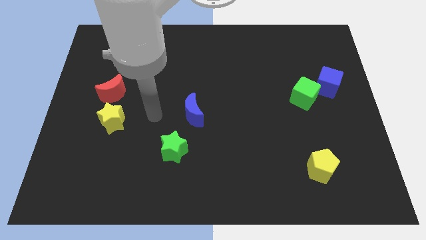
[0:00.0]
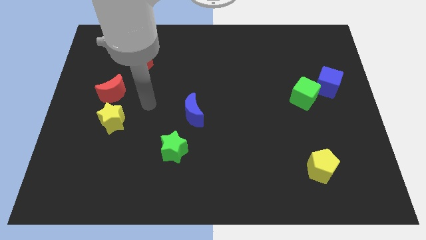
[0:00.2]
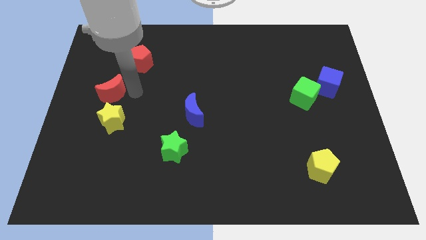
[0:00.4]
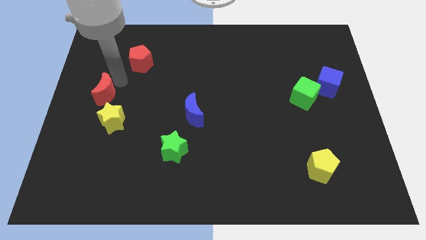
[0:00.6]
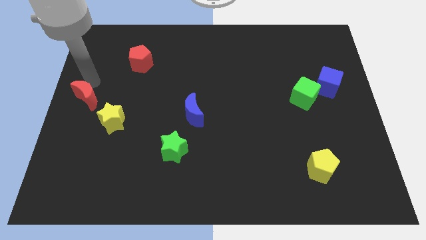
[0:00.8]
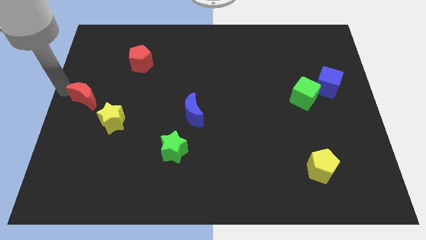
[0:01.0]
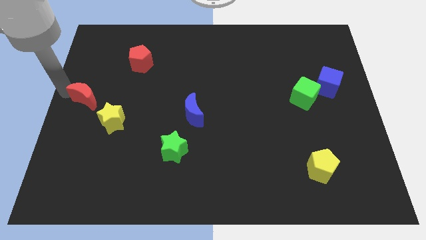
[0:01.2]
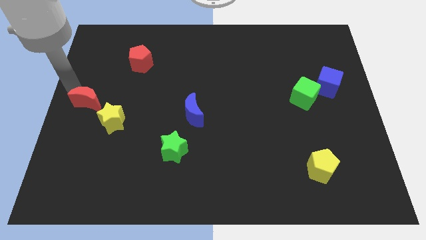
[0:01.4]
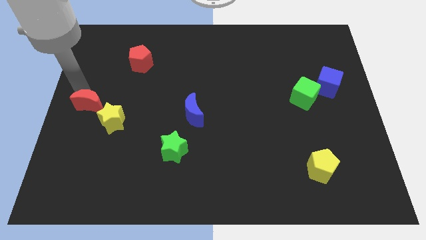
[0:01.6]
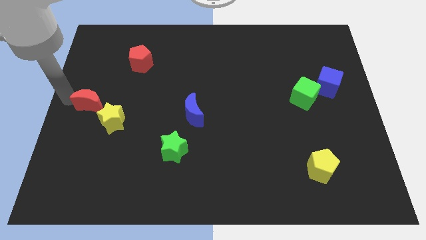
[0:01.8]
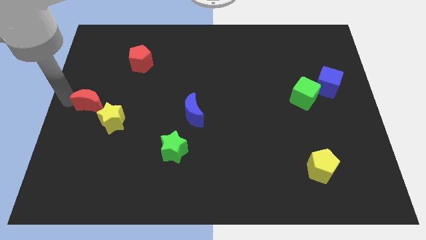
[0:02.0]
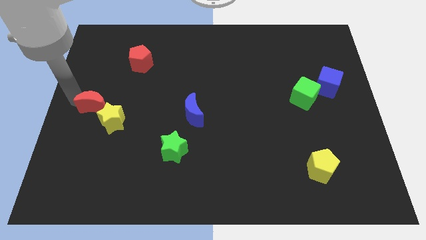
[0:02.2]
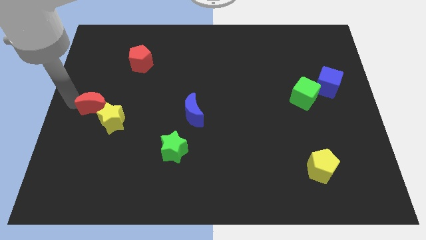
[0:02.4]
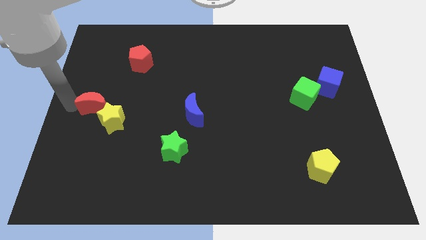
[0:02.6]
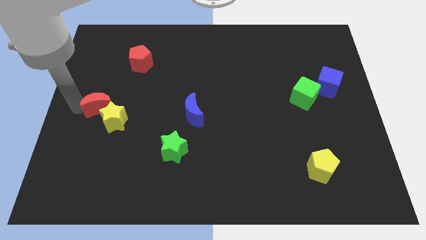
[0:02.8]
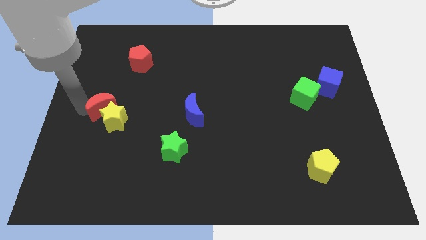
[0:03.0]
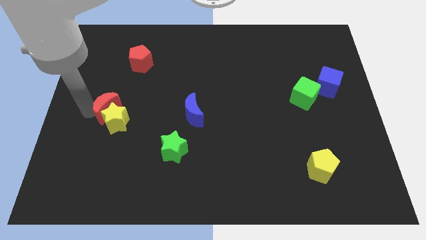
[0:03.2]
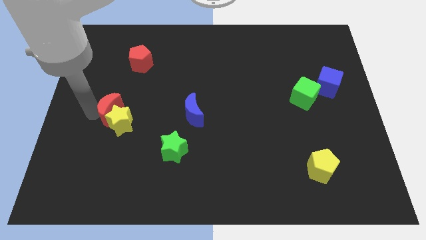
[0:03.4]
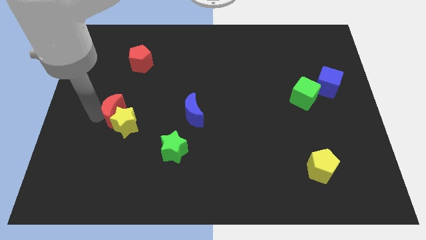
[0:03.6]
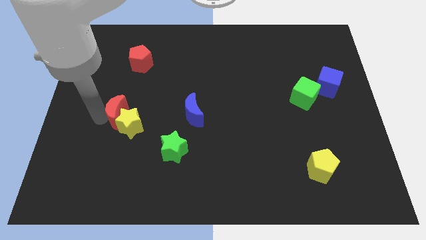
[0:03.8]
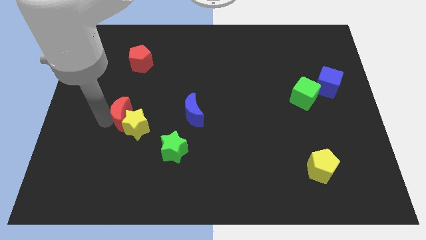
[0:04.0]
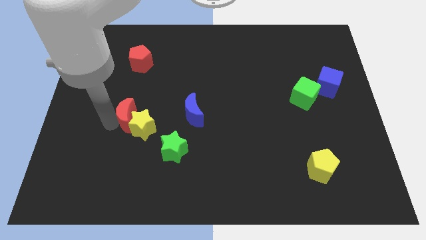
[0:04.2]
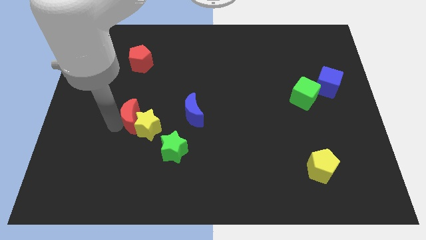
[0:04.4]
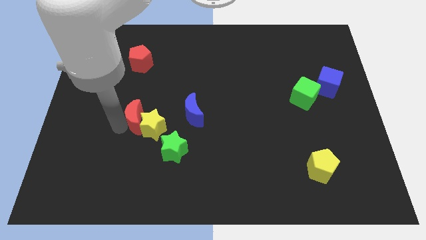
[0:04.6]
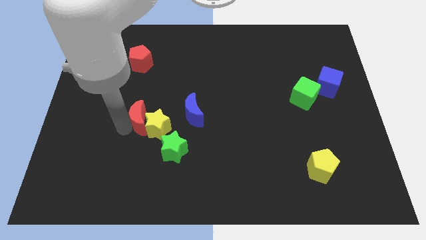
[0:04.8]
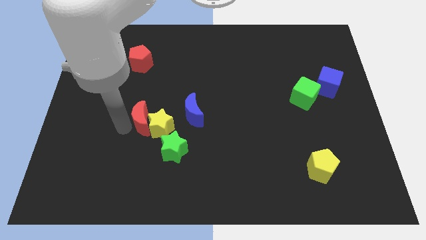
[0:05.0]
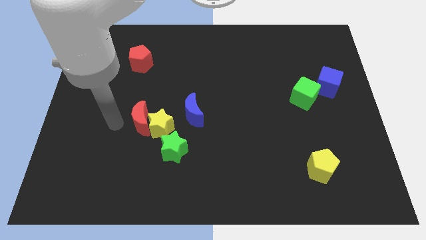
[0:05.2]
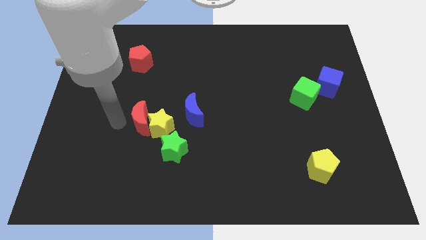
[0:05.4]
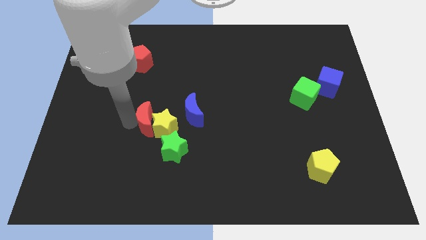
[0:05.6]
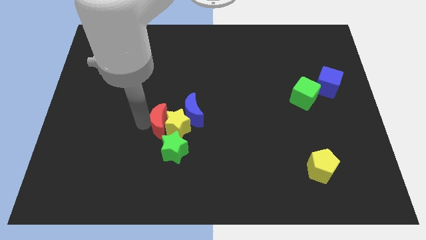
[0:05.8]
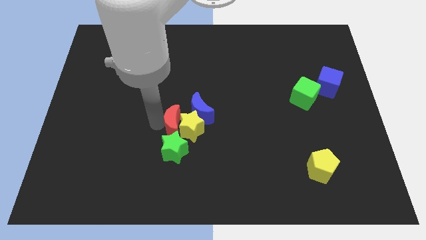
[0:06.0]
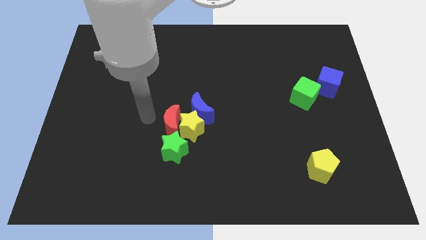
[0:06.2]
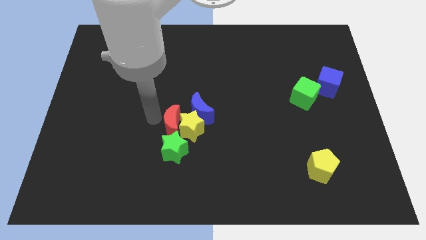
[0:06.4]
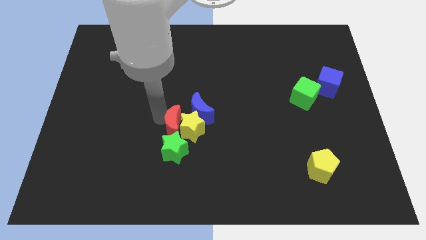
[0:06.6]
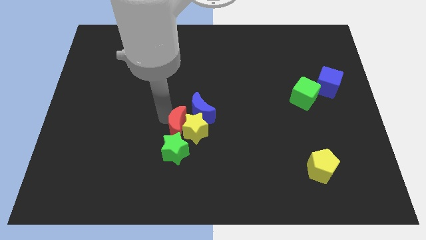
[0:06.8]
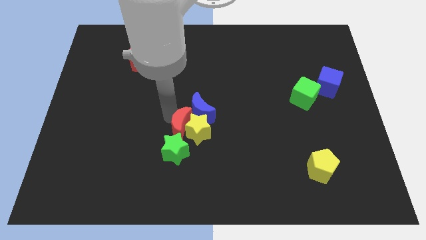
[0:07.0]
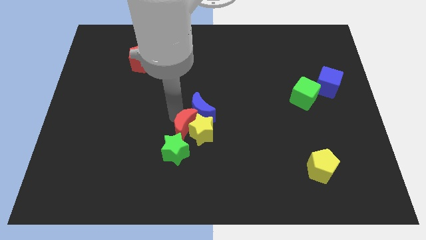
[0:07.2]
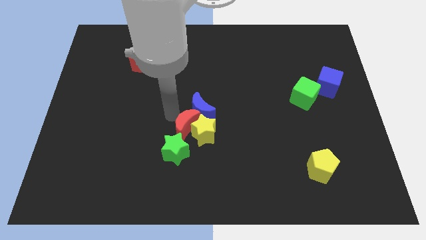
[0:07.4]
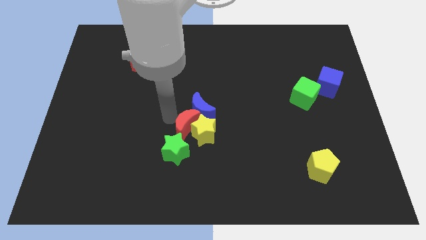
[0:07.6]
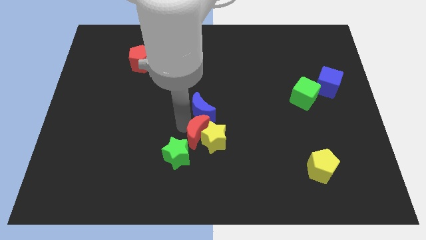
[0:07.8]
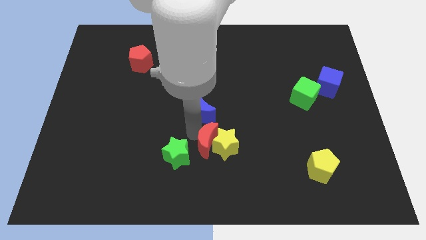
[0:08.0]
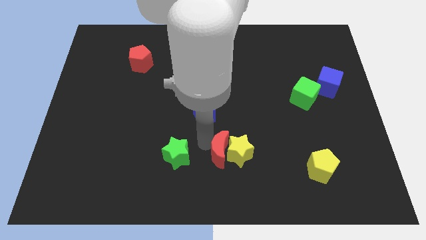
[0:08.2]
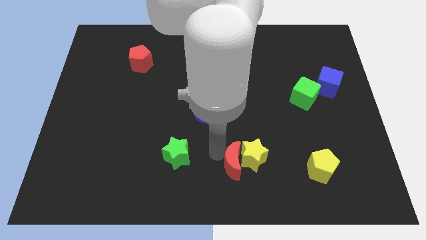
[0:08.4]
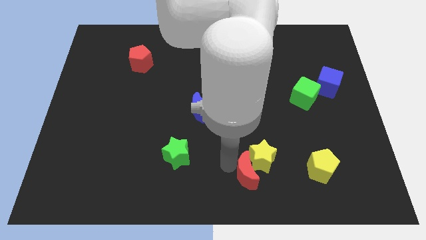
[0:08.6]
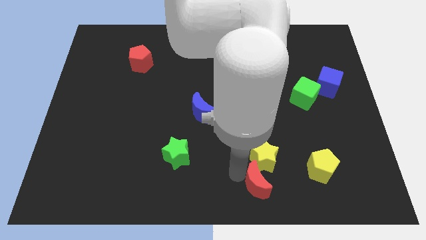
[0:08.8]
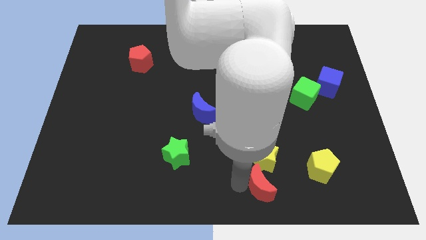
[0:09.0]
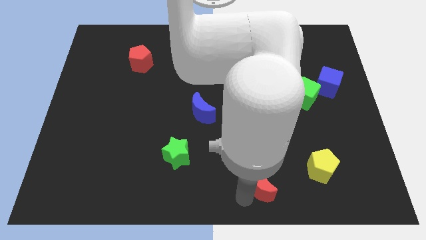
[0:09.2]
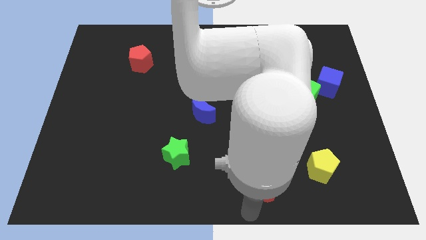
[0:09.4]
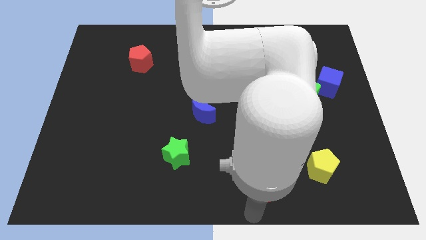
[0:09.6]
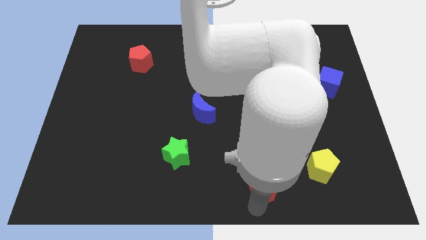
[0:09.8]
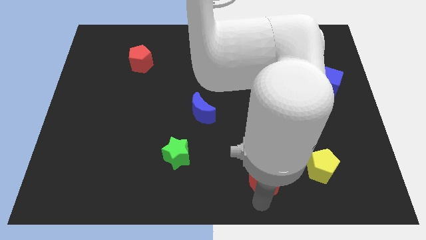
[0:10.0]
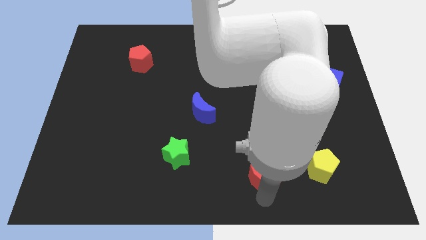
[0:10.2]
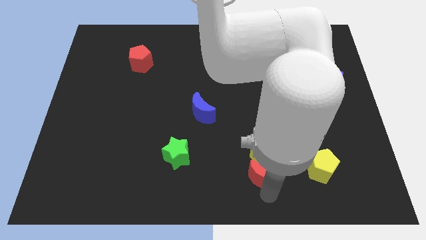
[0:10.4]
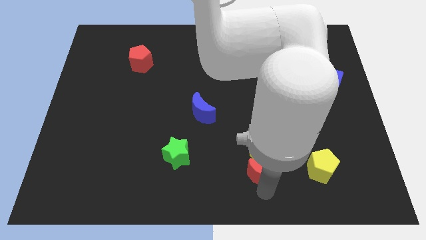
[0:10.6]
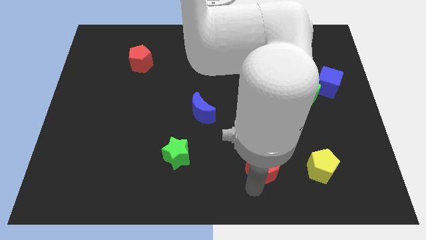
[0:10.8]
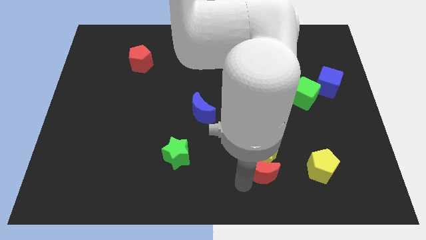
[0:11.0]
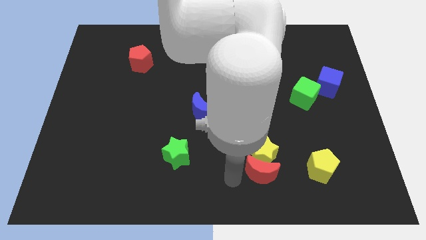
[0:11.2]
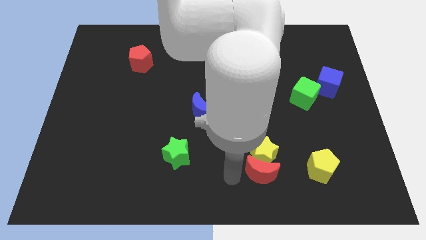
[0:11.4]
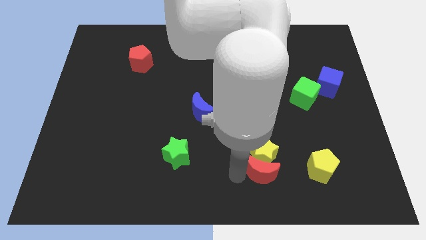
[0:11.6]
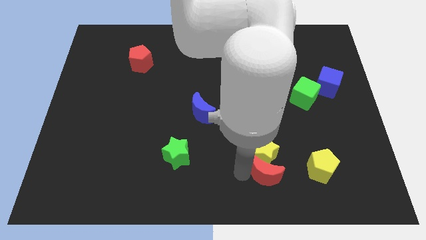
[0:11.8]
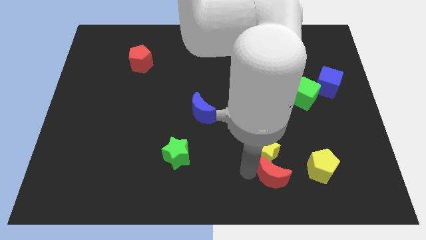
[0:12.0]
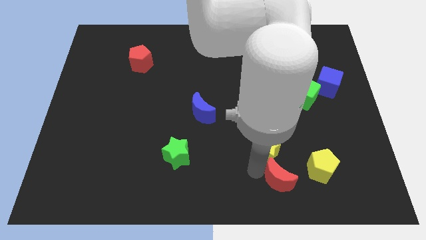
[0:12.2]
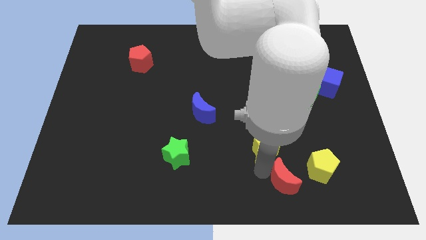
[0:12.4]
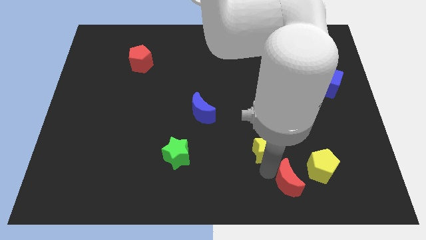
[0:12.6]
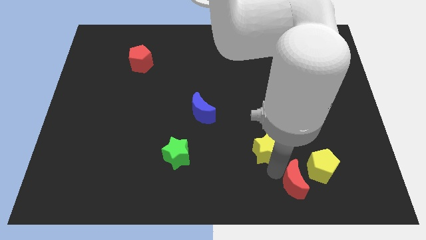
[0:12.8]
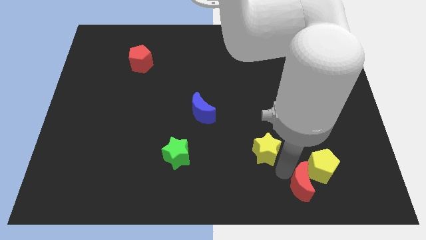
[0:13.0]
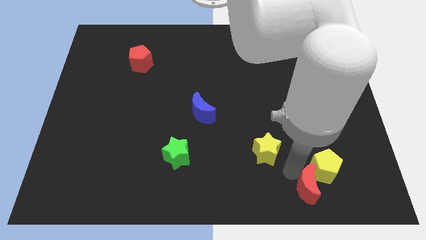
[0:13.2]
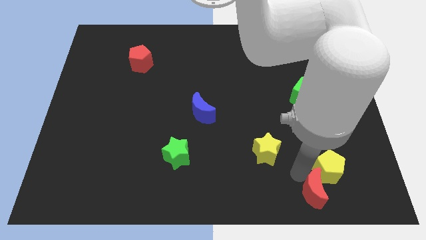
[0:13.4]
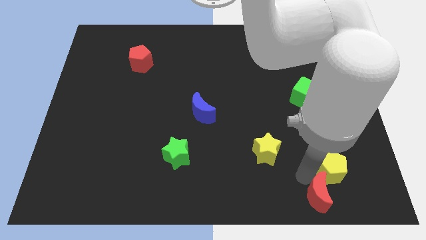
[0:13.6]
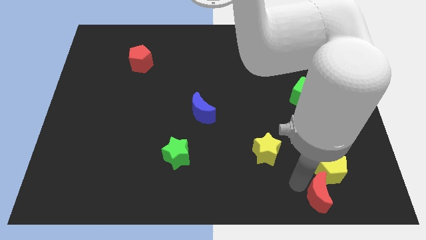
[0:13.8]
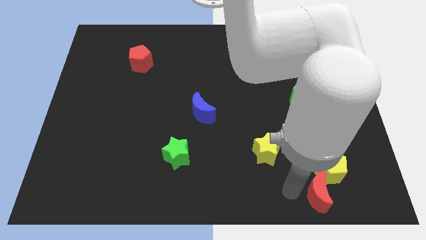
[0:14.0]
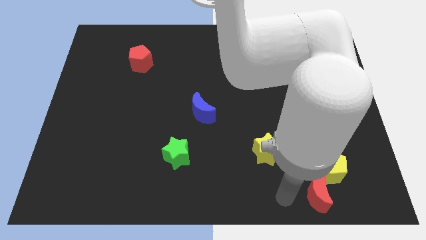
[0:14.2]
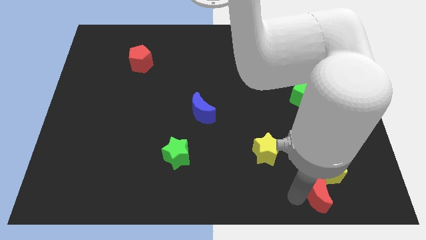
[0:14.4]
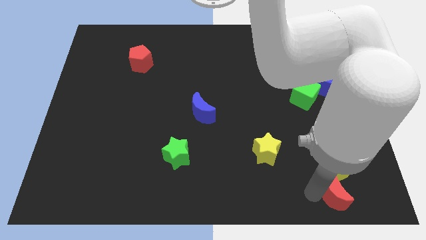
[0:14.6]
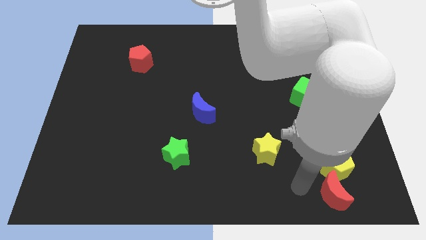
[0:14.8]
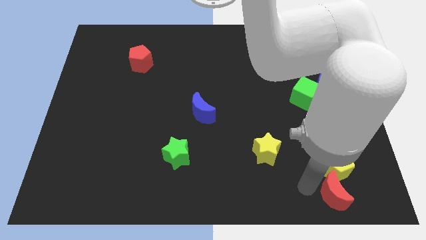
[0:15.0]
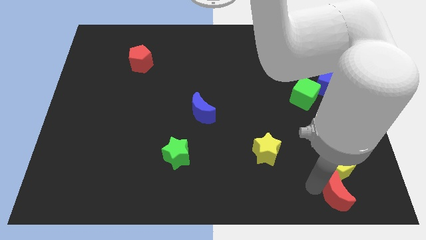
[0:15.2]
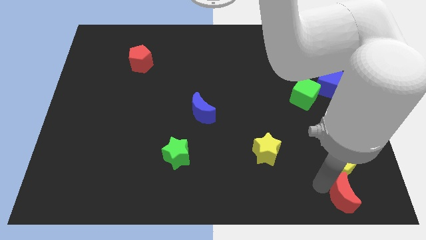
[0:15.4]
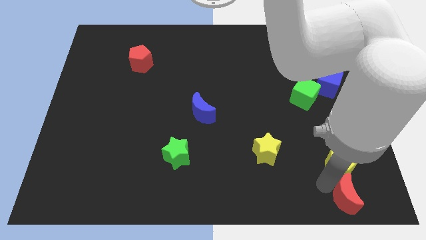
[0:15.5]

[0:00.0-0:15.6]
move the red moon to the bottom right
